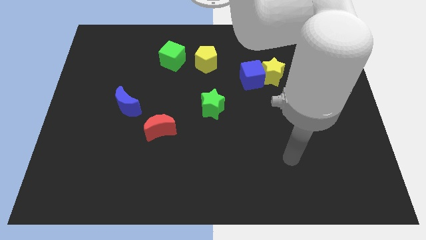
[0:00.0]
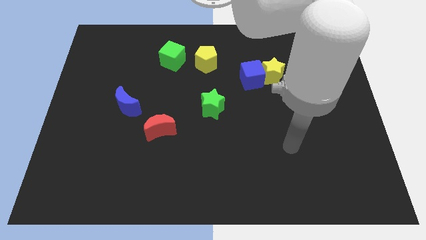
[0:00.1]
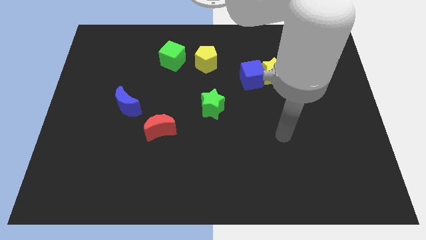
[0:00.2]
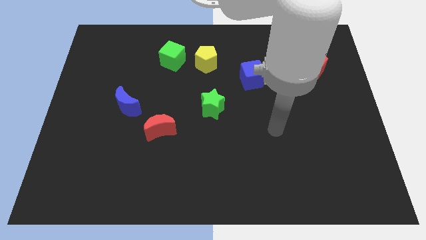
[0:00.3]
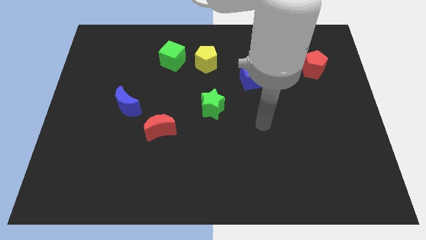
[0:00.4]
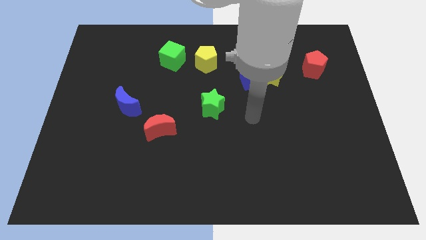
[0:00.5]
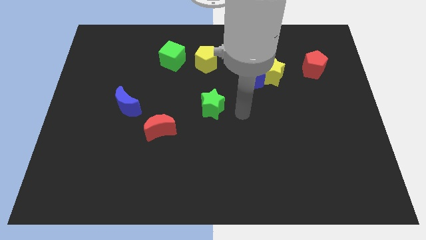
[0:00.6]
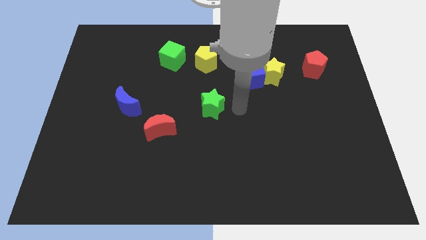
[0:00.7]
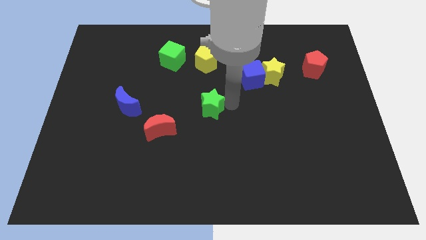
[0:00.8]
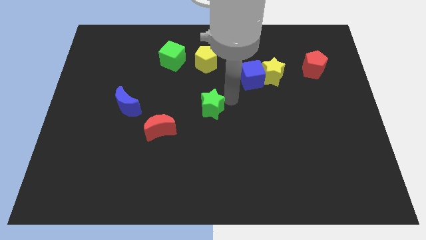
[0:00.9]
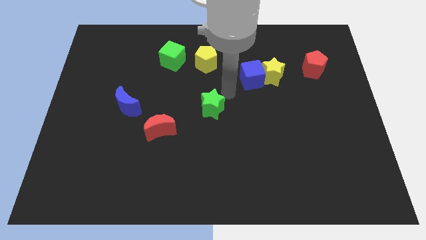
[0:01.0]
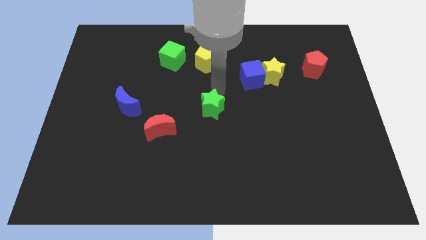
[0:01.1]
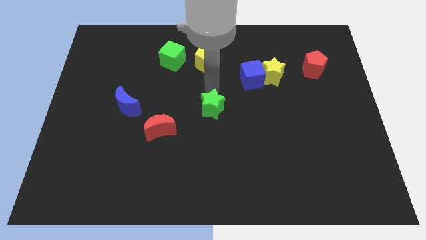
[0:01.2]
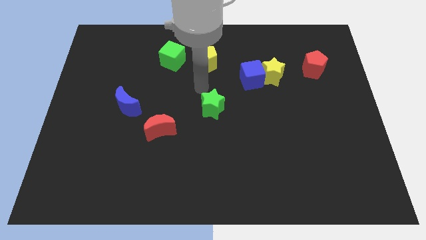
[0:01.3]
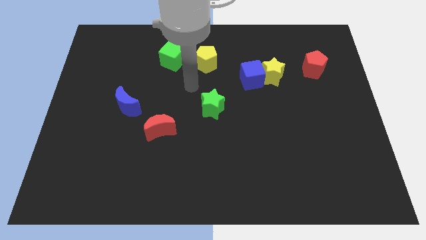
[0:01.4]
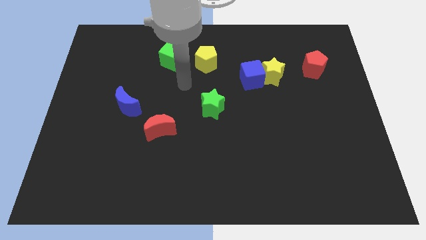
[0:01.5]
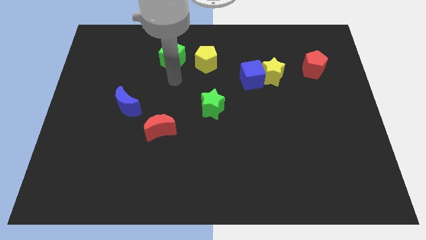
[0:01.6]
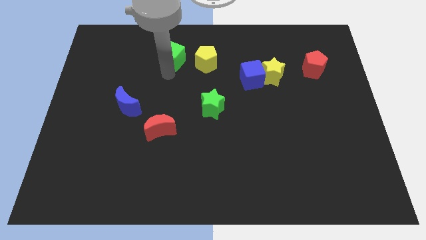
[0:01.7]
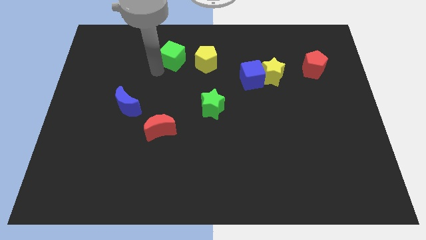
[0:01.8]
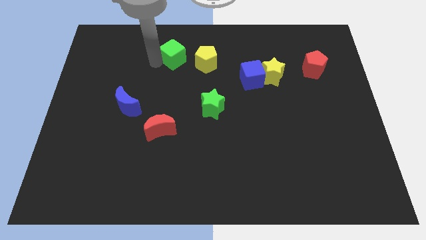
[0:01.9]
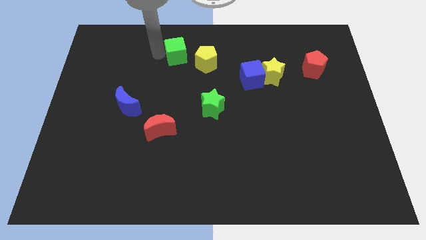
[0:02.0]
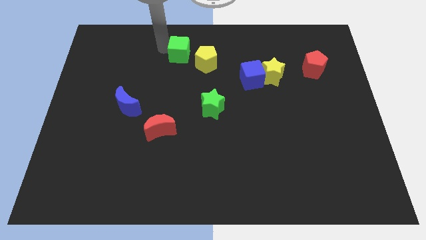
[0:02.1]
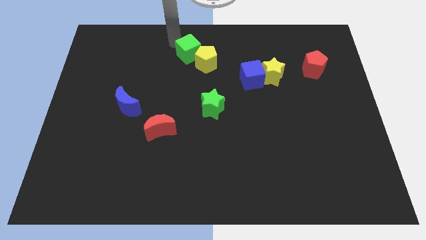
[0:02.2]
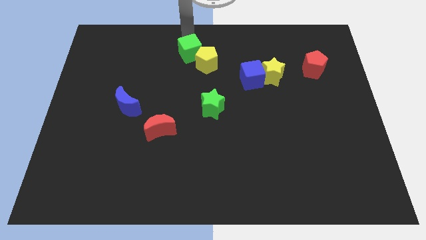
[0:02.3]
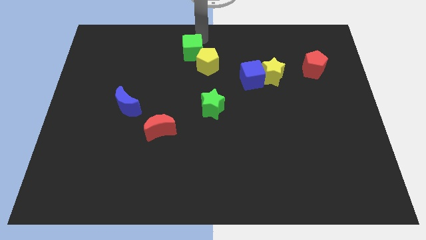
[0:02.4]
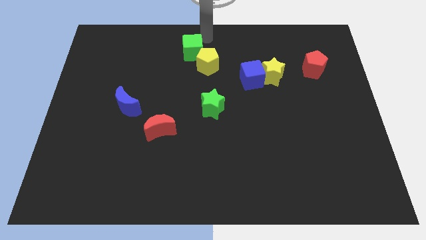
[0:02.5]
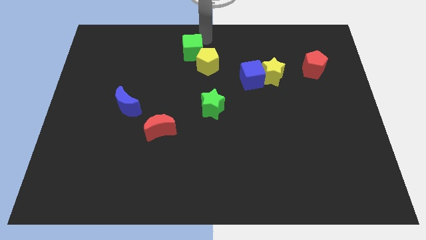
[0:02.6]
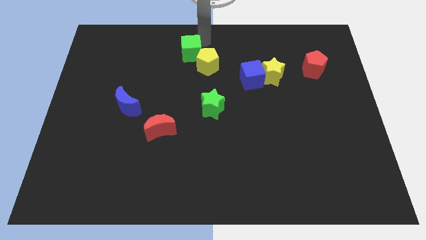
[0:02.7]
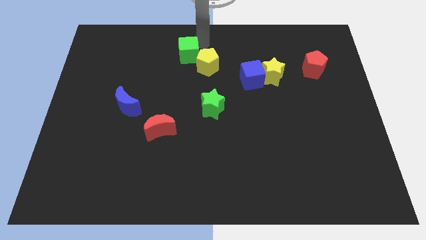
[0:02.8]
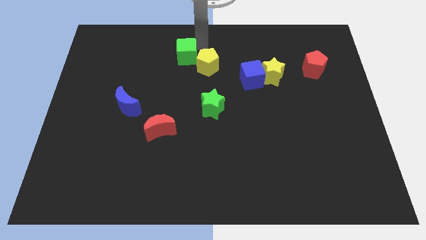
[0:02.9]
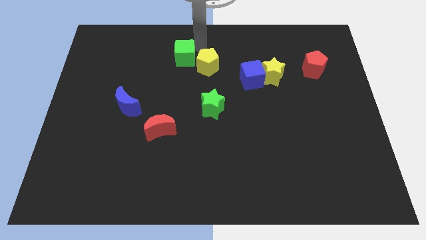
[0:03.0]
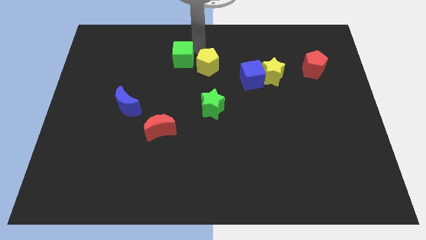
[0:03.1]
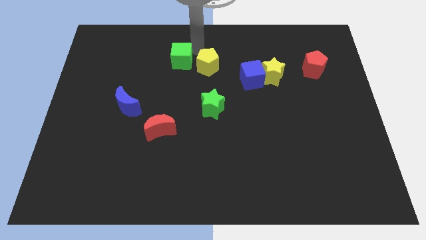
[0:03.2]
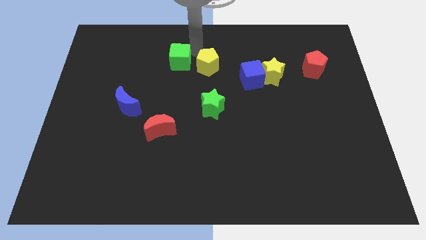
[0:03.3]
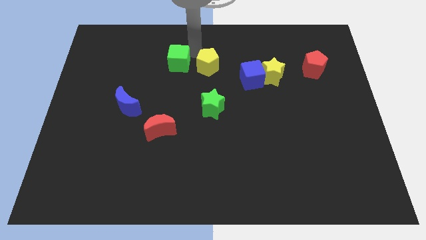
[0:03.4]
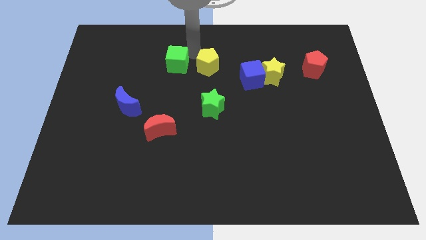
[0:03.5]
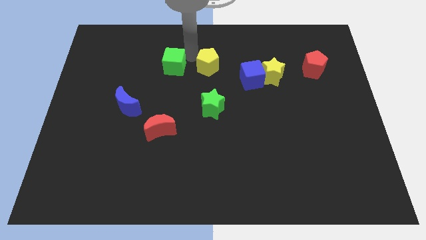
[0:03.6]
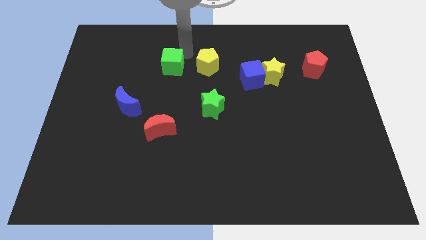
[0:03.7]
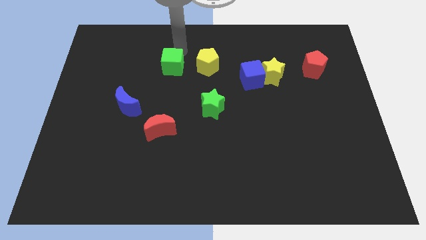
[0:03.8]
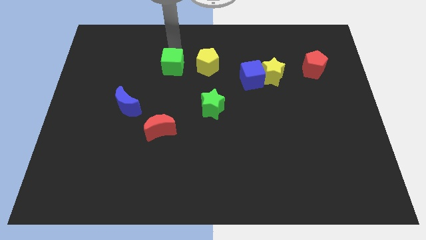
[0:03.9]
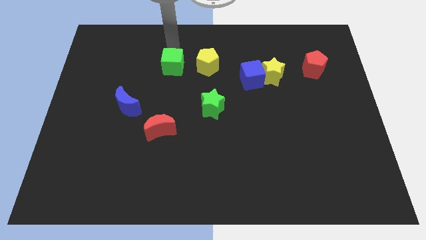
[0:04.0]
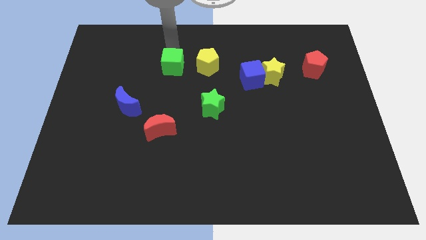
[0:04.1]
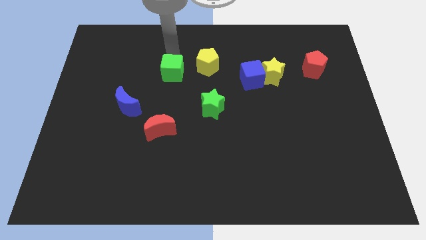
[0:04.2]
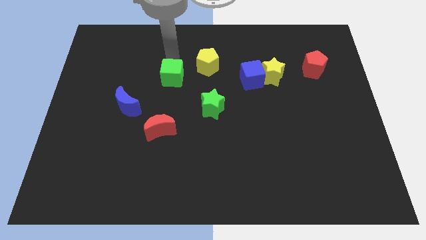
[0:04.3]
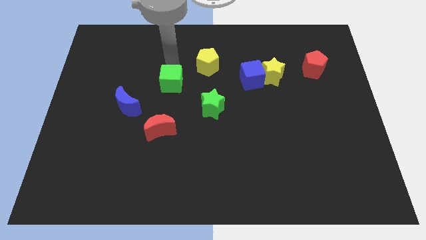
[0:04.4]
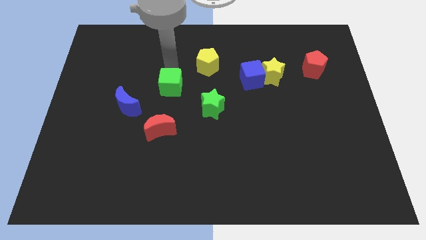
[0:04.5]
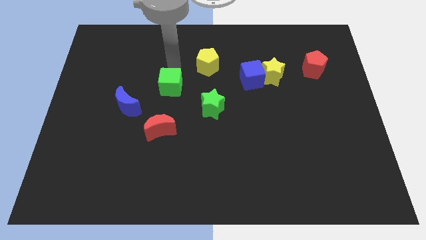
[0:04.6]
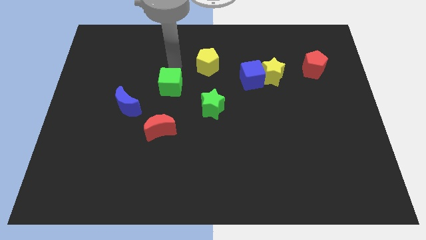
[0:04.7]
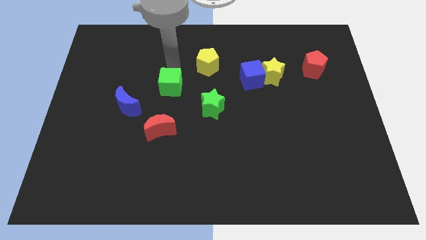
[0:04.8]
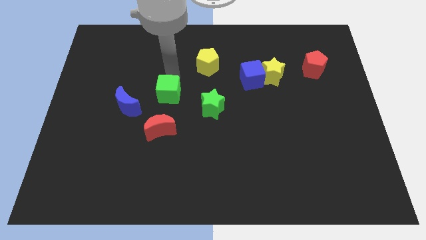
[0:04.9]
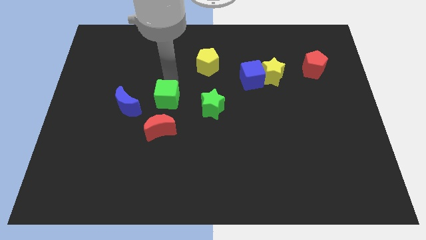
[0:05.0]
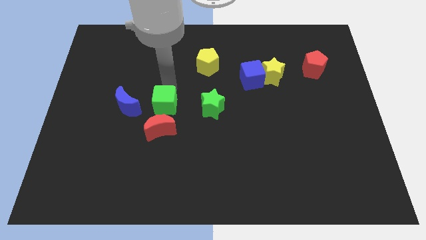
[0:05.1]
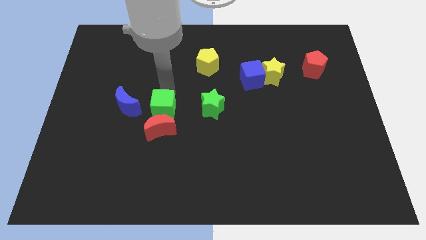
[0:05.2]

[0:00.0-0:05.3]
put the green cube to the red moon

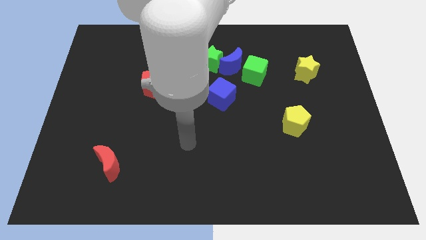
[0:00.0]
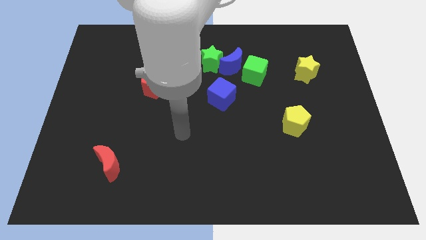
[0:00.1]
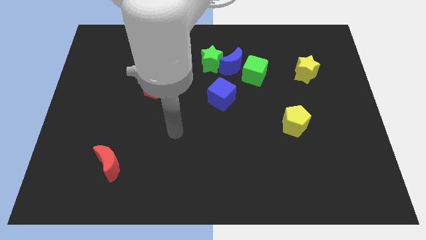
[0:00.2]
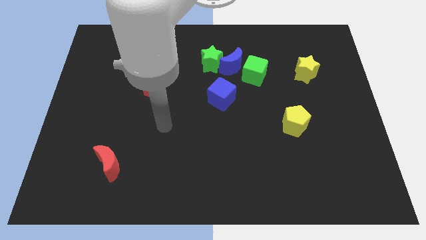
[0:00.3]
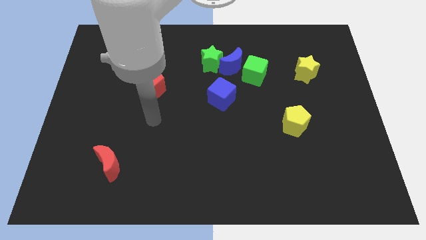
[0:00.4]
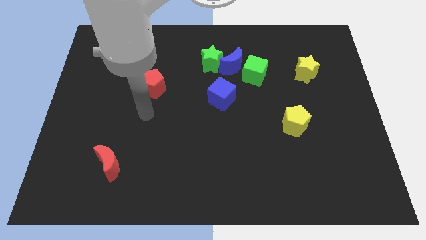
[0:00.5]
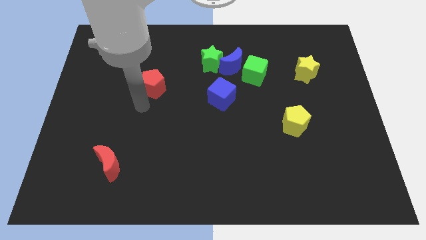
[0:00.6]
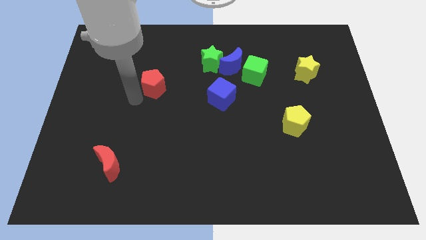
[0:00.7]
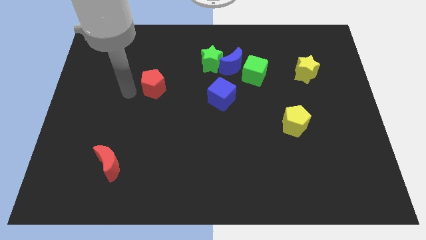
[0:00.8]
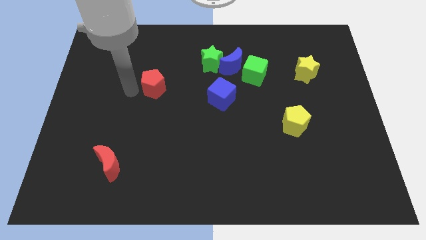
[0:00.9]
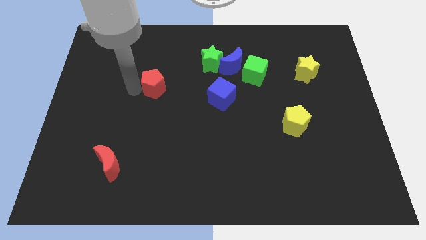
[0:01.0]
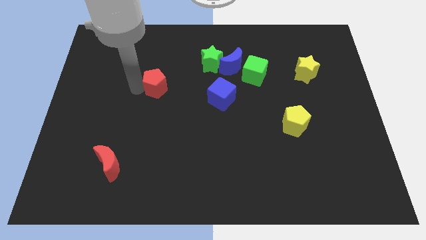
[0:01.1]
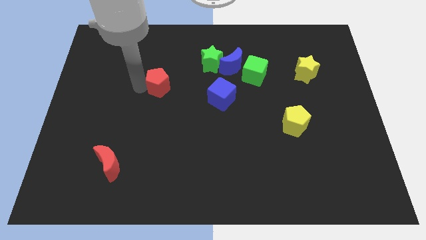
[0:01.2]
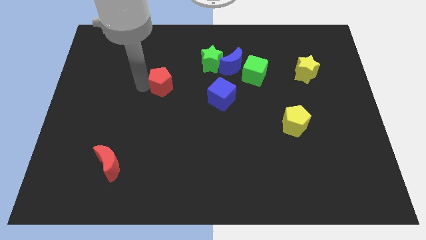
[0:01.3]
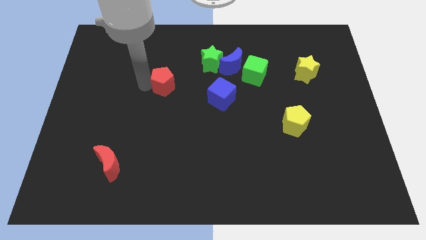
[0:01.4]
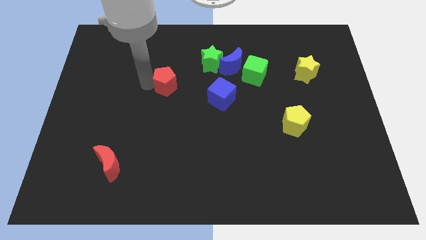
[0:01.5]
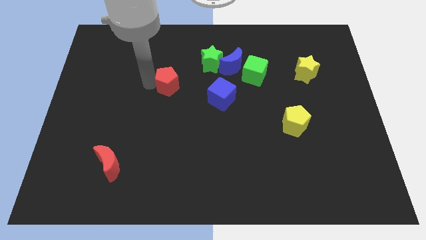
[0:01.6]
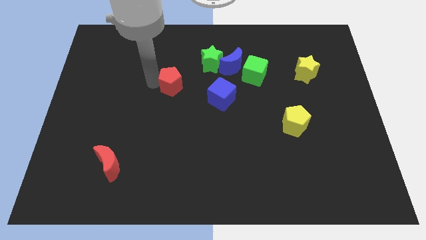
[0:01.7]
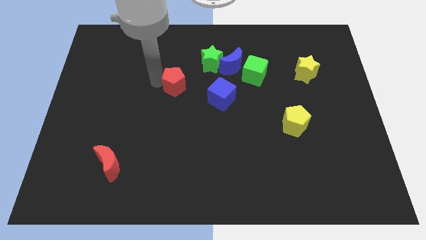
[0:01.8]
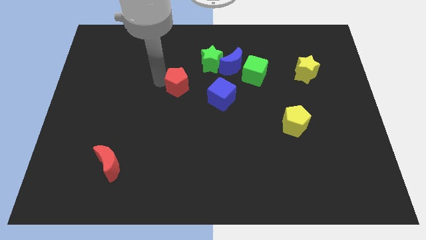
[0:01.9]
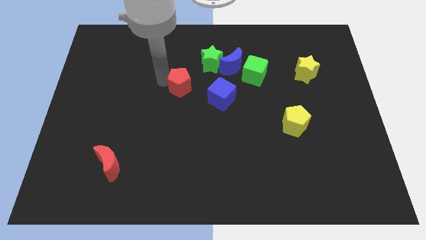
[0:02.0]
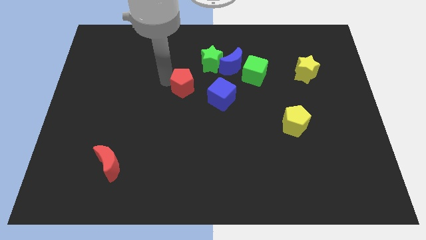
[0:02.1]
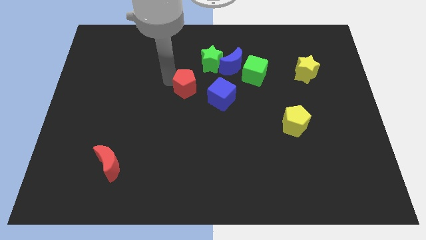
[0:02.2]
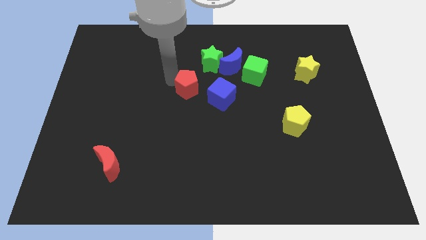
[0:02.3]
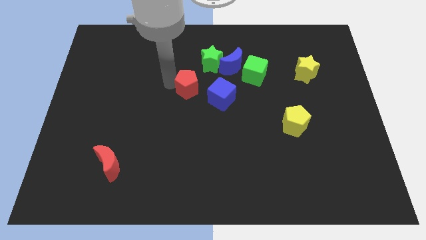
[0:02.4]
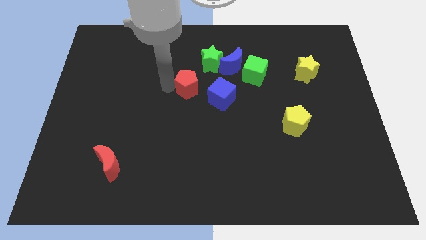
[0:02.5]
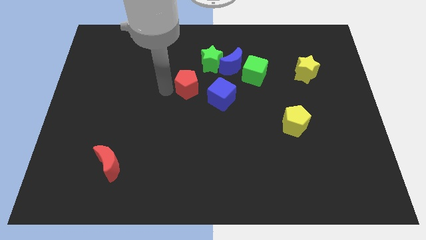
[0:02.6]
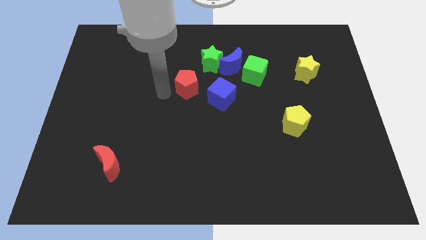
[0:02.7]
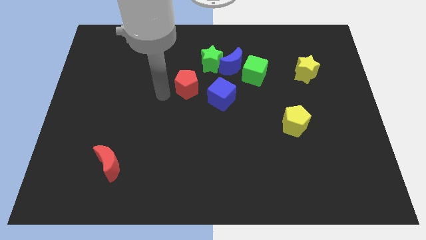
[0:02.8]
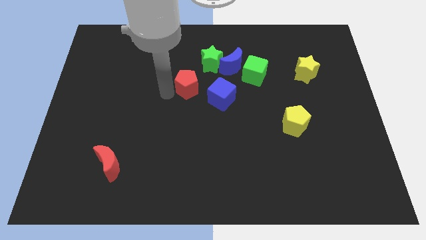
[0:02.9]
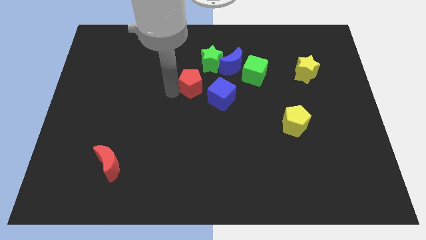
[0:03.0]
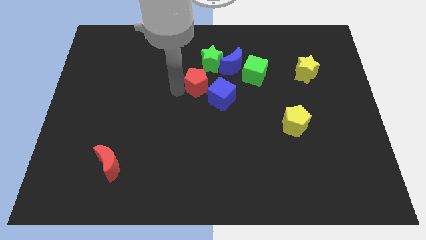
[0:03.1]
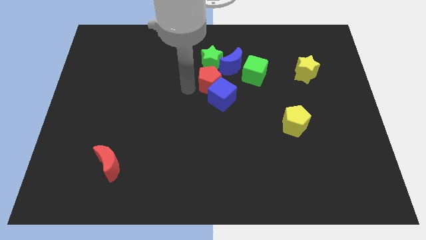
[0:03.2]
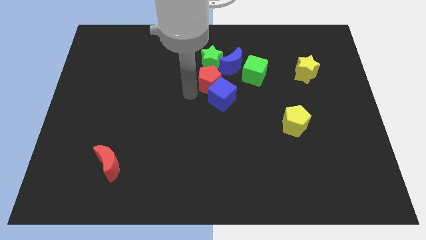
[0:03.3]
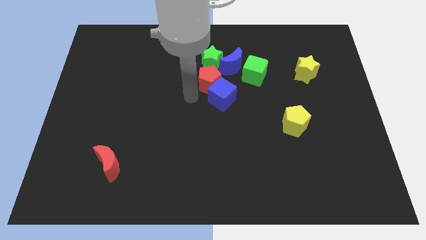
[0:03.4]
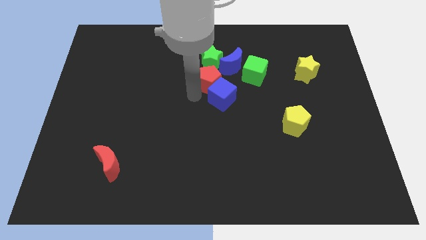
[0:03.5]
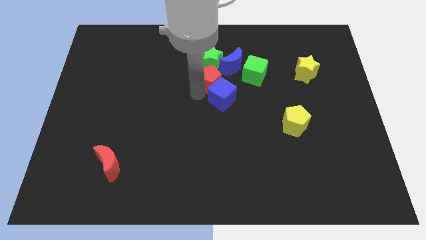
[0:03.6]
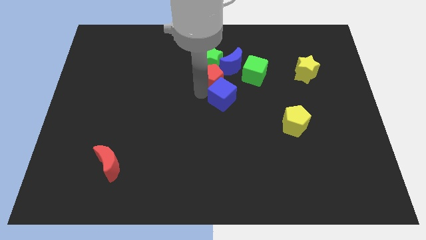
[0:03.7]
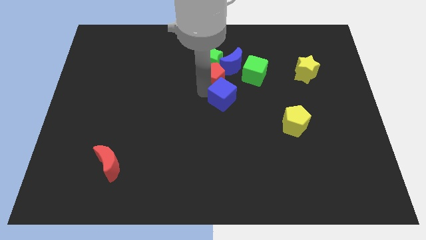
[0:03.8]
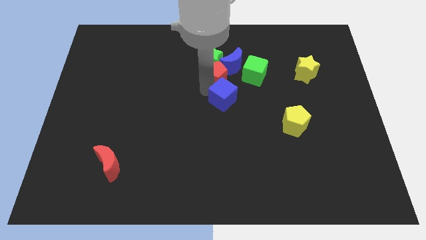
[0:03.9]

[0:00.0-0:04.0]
push the red pentagon towards the blue moon
